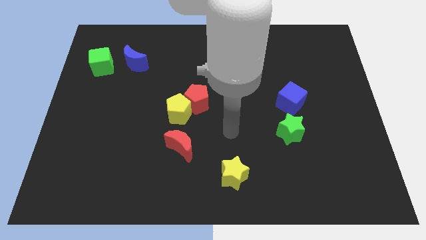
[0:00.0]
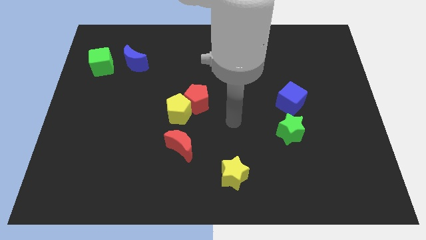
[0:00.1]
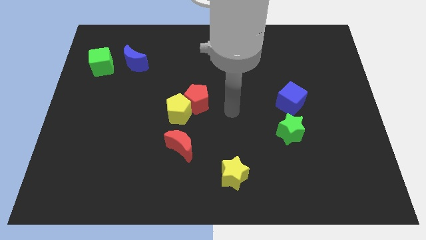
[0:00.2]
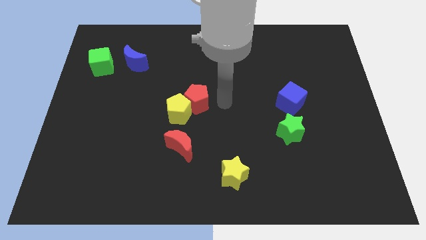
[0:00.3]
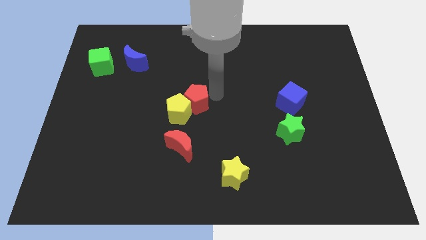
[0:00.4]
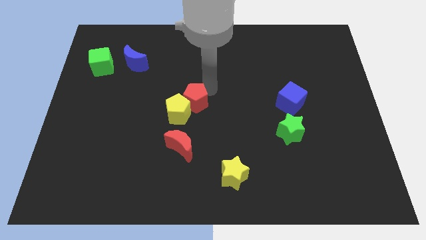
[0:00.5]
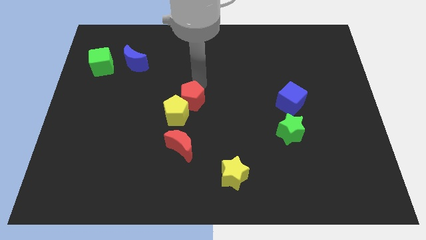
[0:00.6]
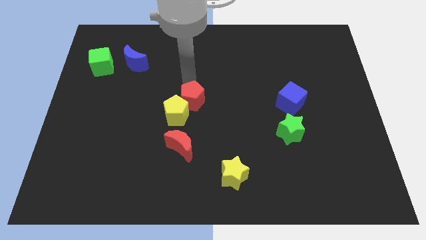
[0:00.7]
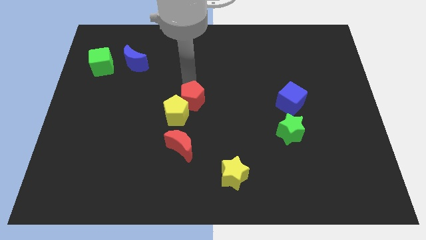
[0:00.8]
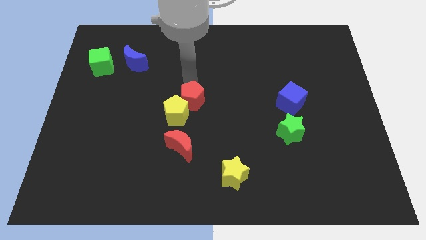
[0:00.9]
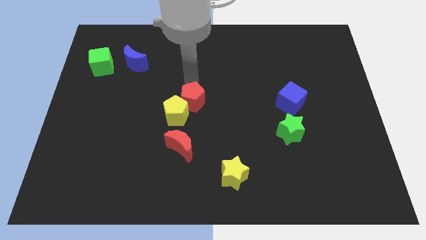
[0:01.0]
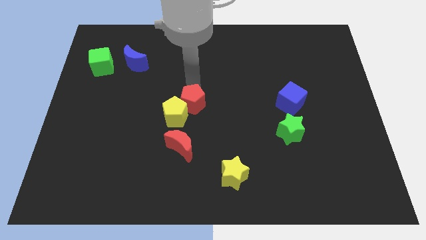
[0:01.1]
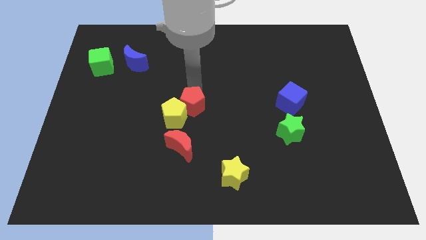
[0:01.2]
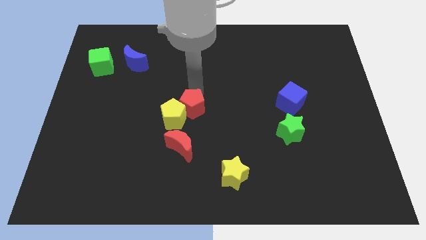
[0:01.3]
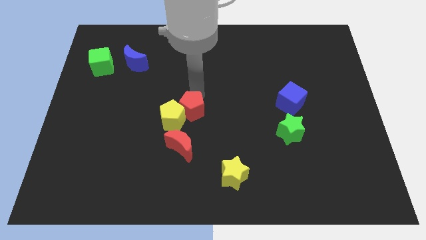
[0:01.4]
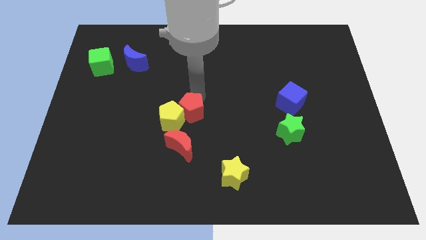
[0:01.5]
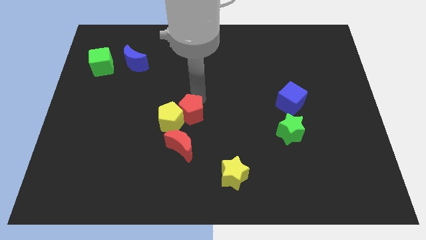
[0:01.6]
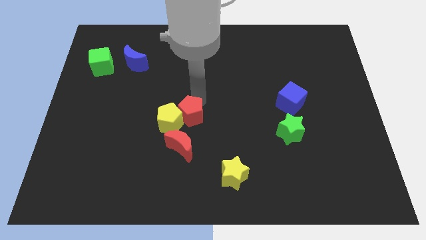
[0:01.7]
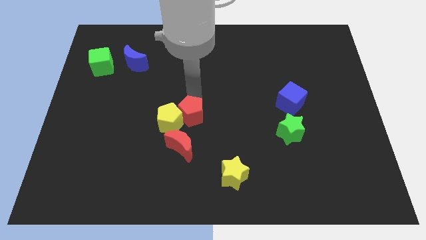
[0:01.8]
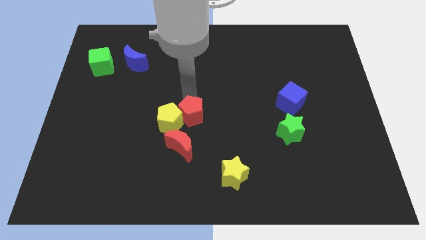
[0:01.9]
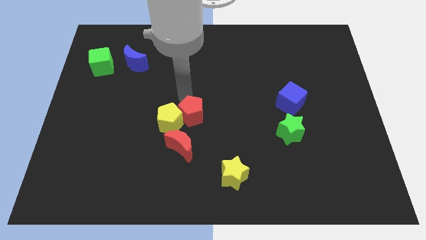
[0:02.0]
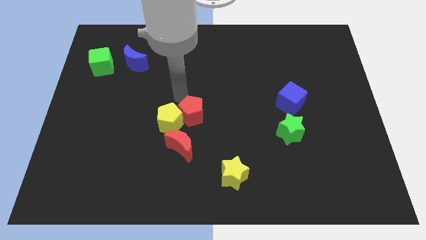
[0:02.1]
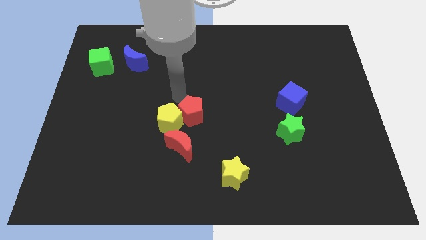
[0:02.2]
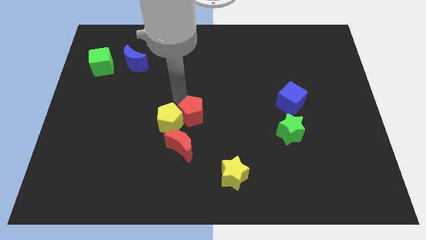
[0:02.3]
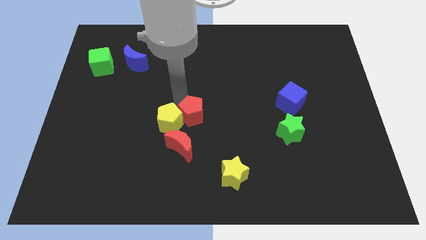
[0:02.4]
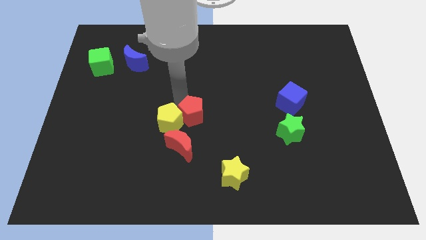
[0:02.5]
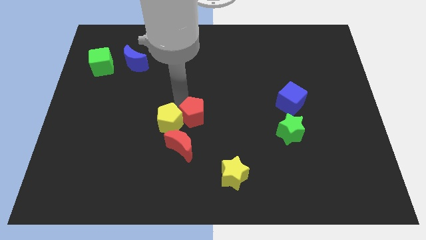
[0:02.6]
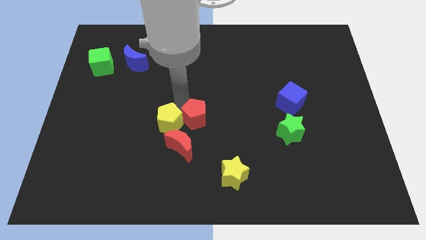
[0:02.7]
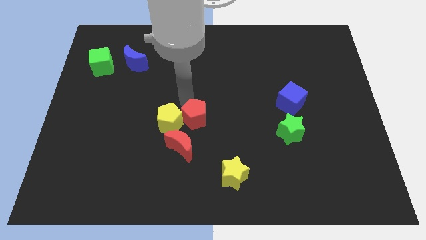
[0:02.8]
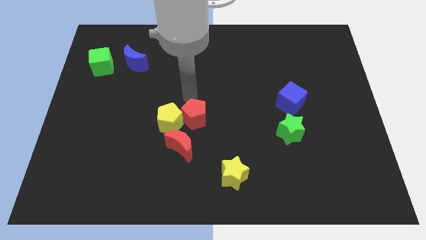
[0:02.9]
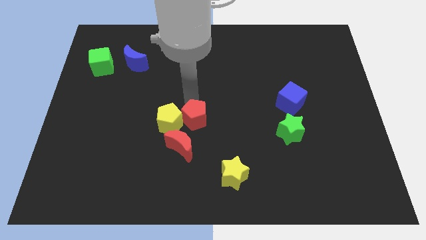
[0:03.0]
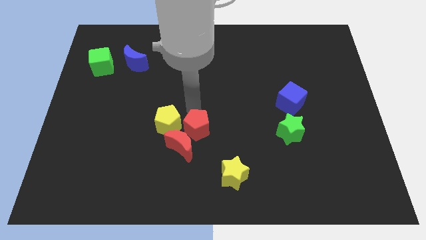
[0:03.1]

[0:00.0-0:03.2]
move the red pentagon down a little

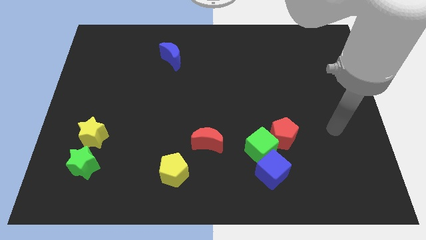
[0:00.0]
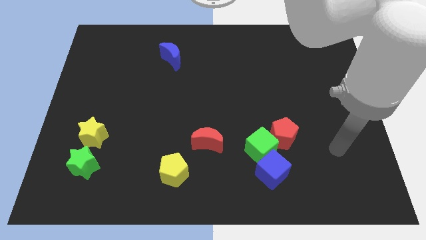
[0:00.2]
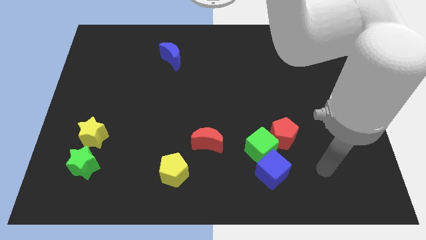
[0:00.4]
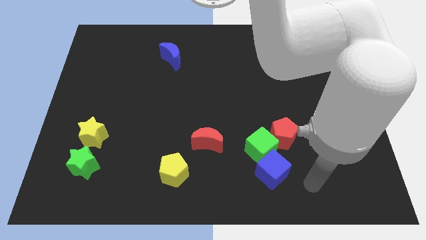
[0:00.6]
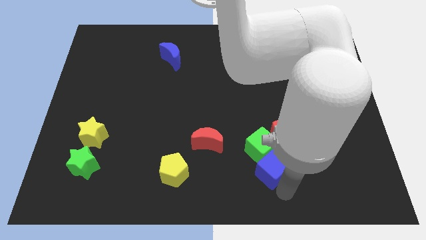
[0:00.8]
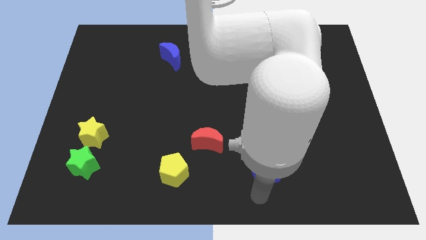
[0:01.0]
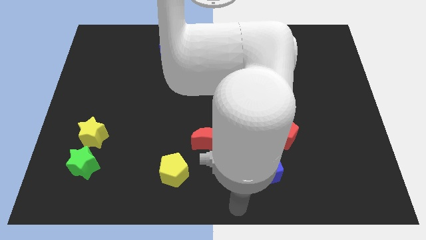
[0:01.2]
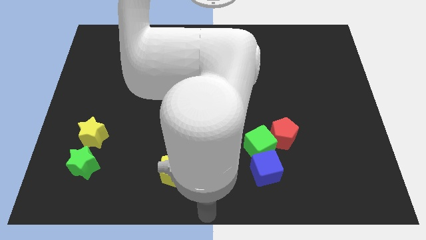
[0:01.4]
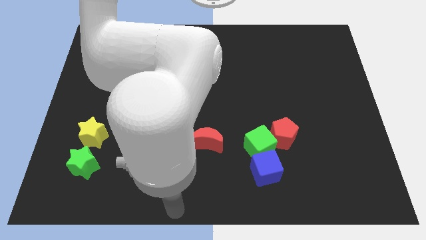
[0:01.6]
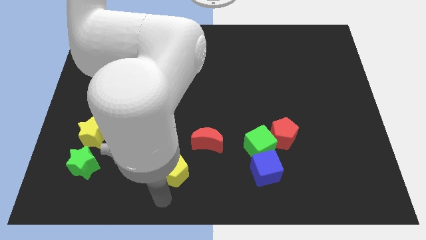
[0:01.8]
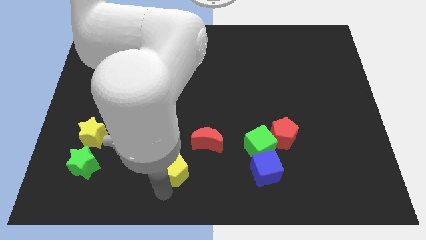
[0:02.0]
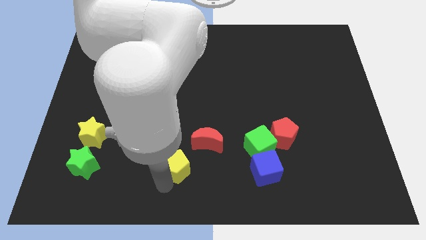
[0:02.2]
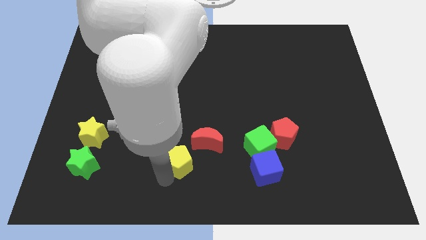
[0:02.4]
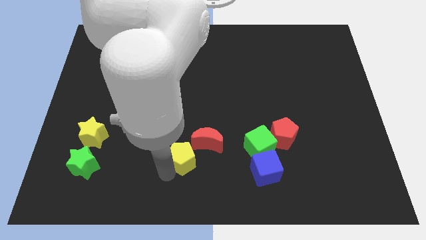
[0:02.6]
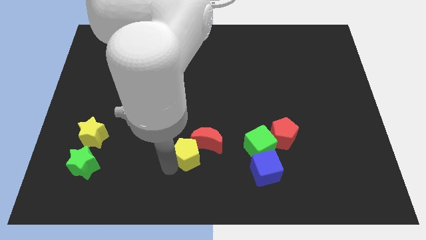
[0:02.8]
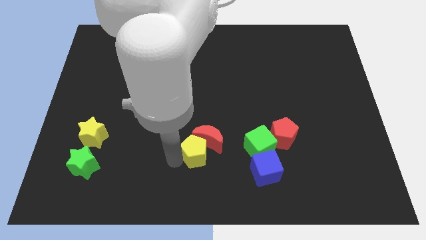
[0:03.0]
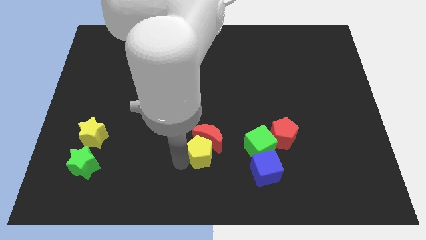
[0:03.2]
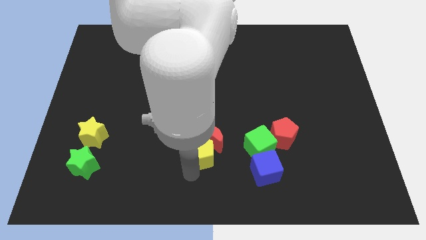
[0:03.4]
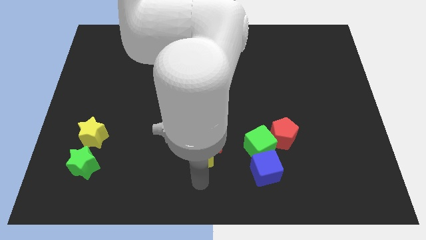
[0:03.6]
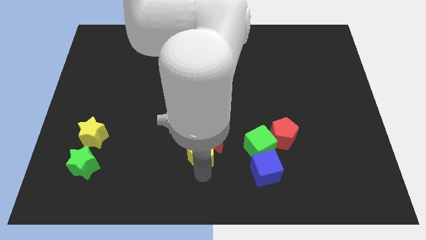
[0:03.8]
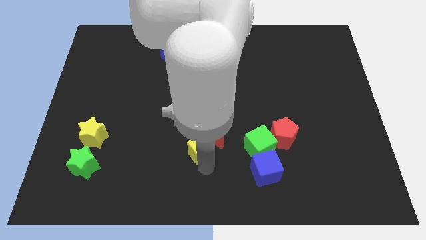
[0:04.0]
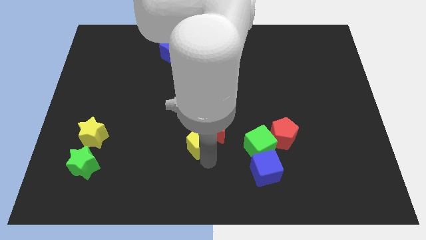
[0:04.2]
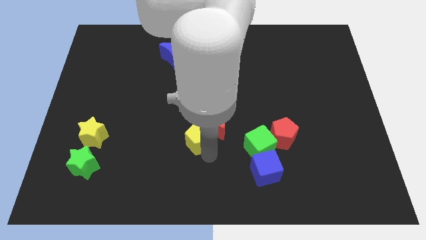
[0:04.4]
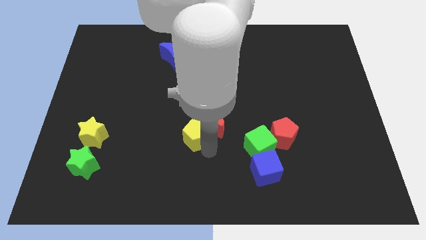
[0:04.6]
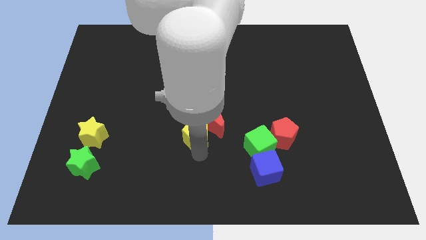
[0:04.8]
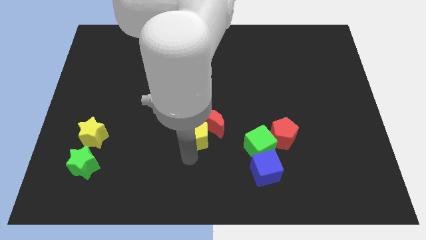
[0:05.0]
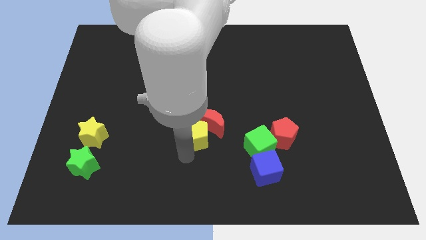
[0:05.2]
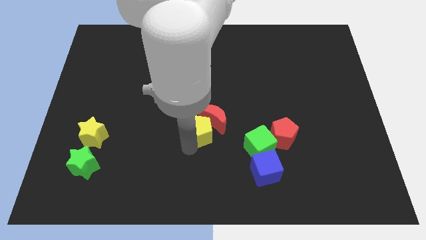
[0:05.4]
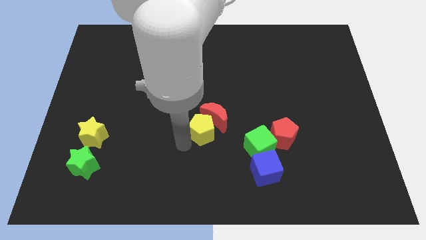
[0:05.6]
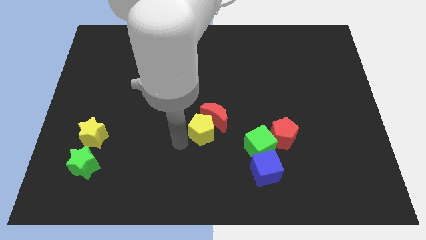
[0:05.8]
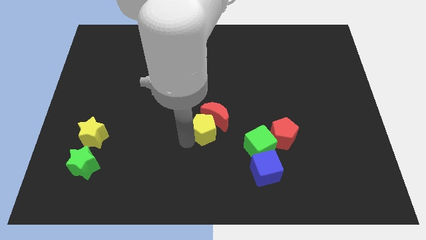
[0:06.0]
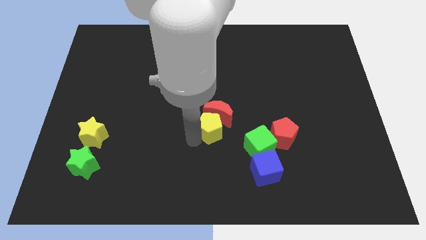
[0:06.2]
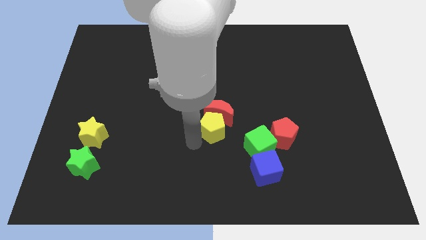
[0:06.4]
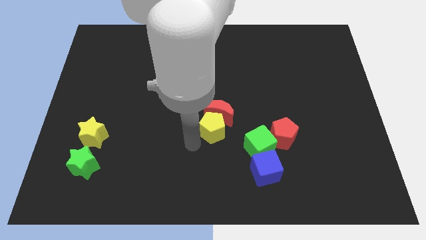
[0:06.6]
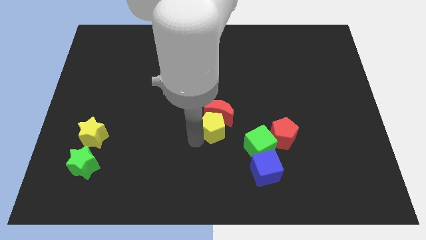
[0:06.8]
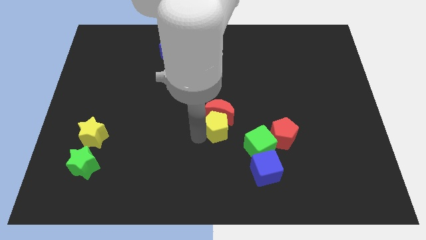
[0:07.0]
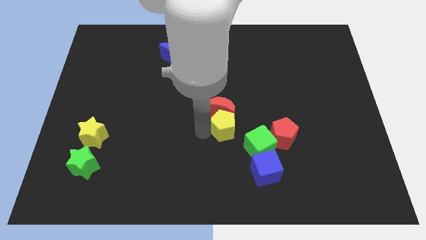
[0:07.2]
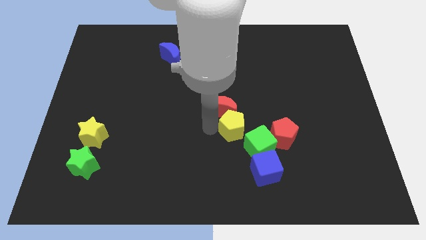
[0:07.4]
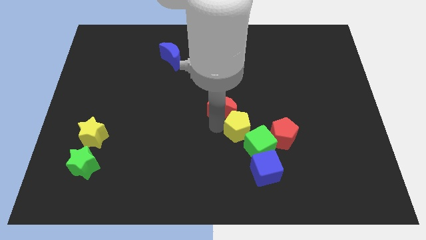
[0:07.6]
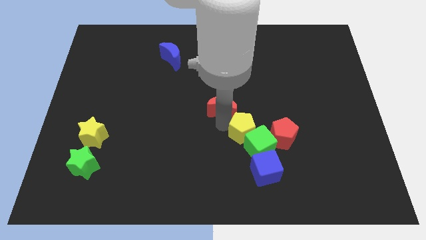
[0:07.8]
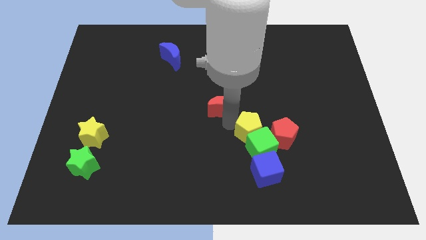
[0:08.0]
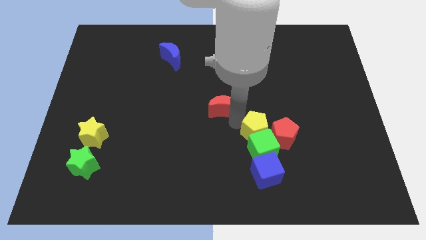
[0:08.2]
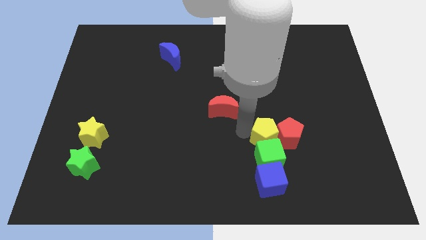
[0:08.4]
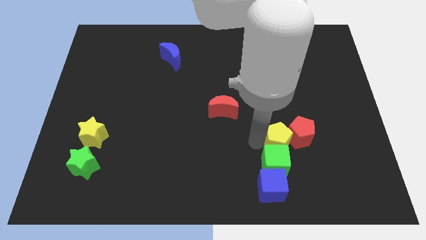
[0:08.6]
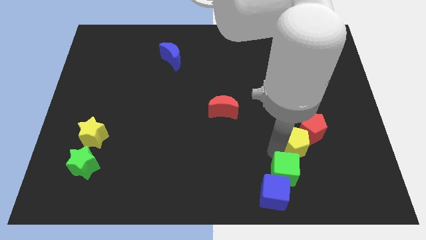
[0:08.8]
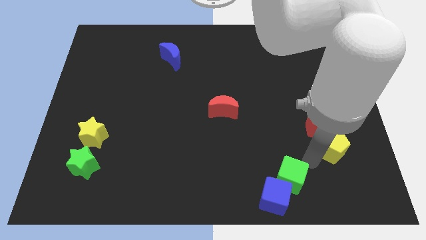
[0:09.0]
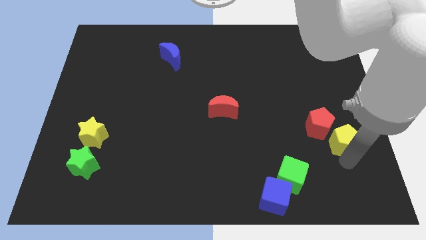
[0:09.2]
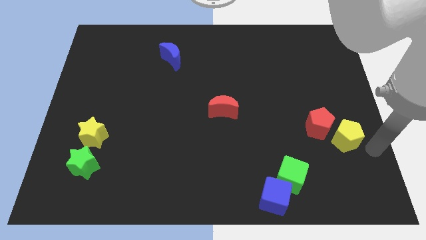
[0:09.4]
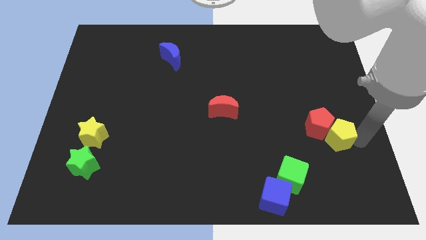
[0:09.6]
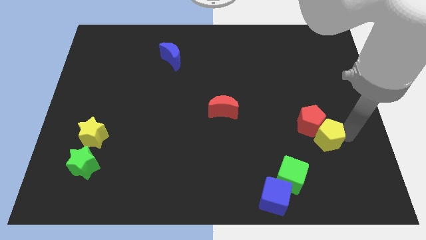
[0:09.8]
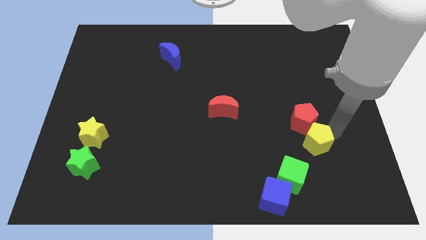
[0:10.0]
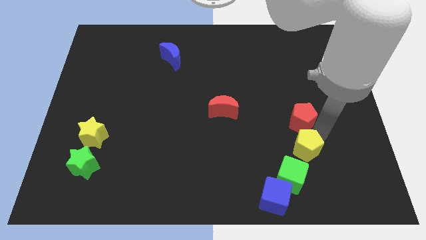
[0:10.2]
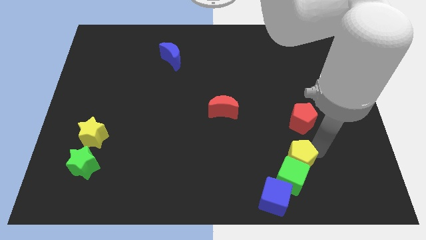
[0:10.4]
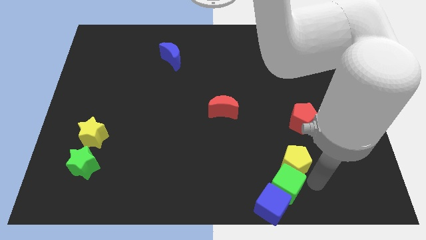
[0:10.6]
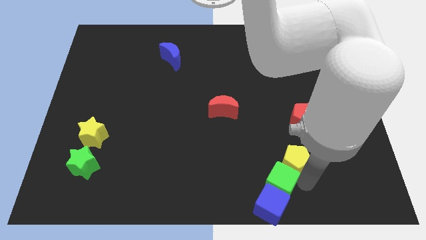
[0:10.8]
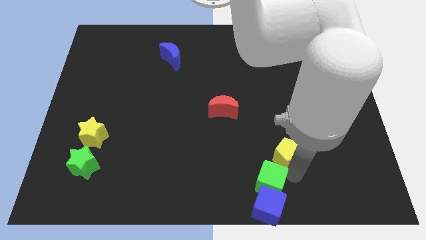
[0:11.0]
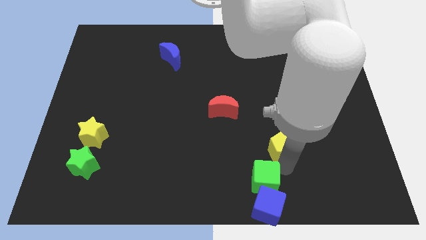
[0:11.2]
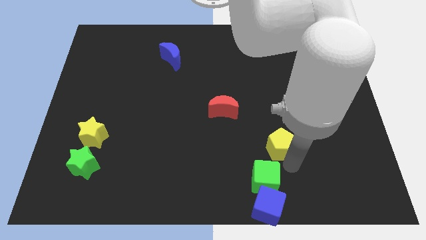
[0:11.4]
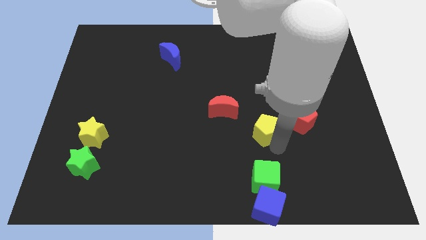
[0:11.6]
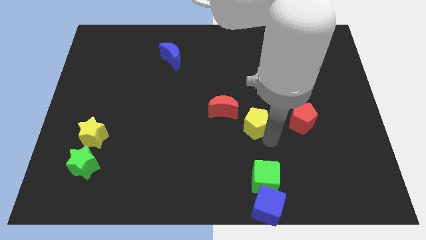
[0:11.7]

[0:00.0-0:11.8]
move the yellow pentagon upwards and to the right diagonally
